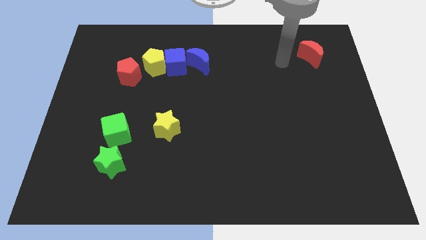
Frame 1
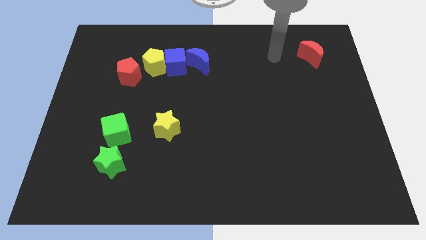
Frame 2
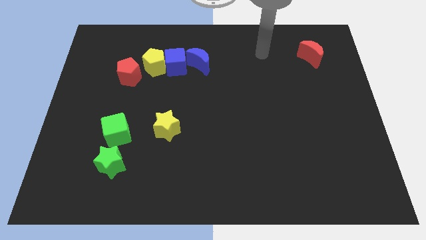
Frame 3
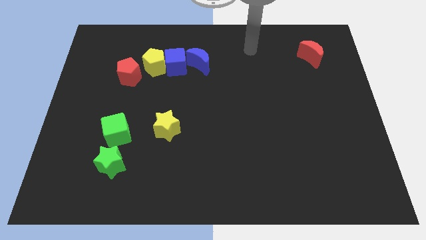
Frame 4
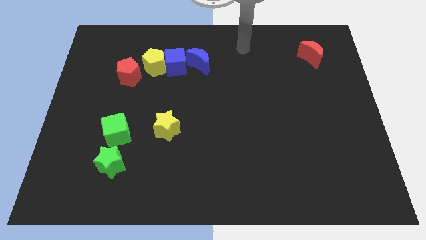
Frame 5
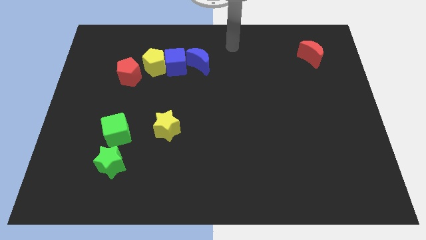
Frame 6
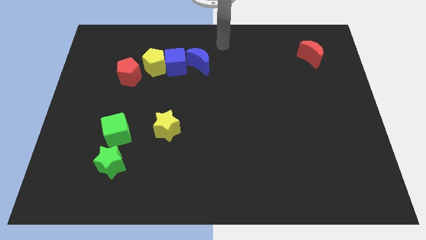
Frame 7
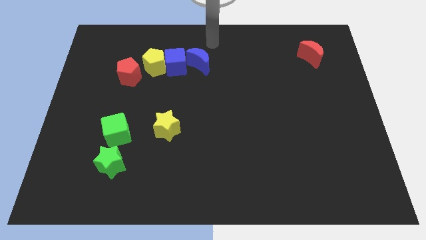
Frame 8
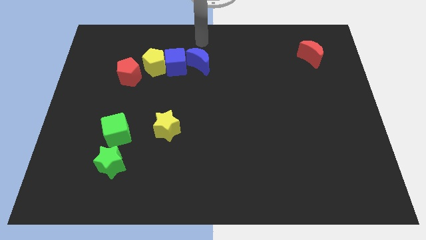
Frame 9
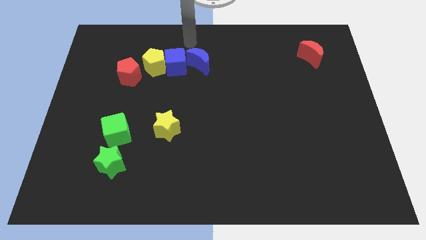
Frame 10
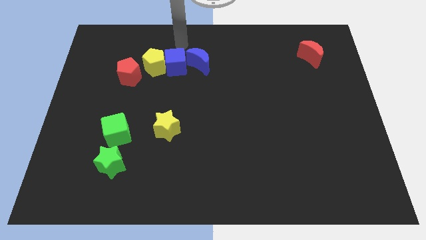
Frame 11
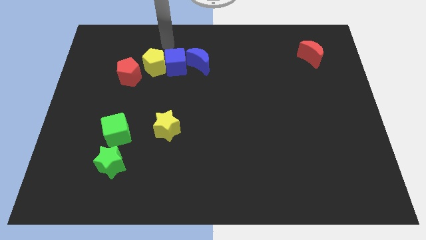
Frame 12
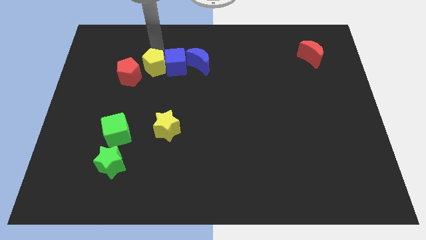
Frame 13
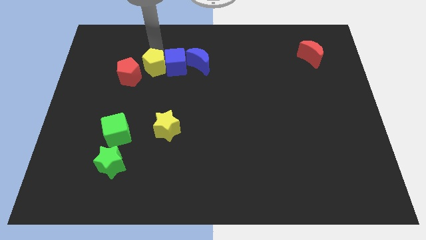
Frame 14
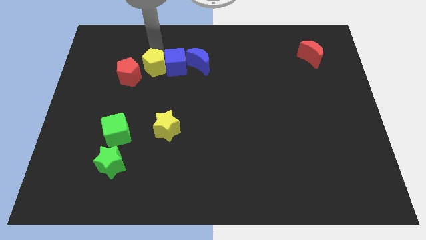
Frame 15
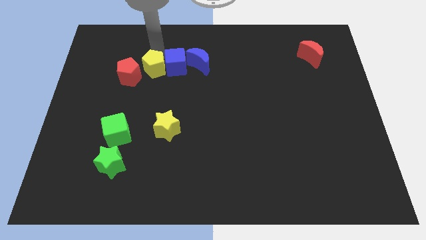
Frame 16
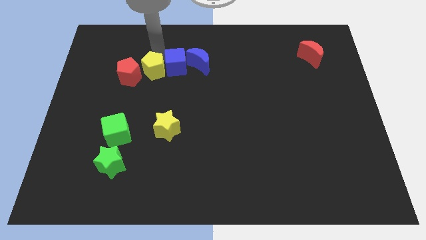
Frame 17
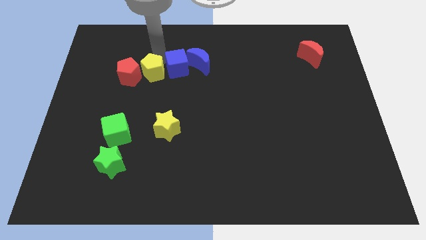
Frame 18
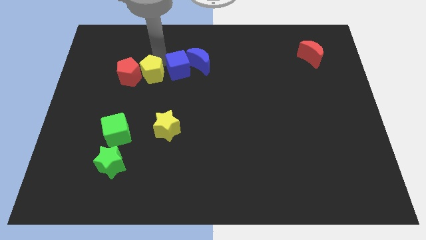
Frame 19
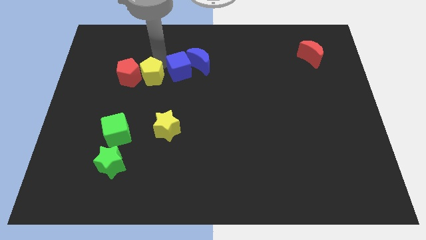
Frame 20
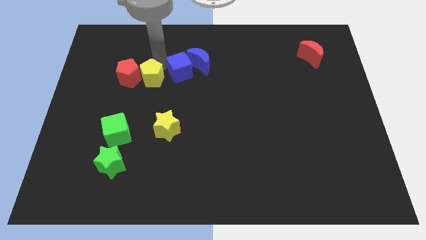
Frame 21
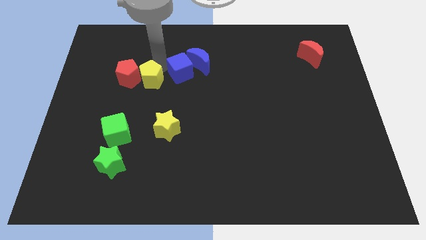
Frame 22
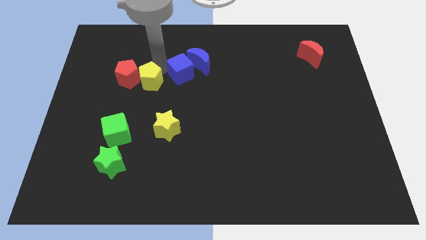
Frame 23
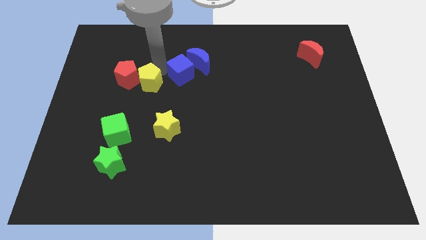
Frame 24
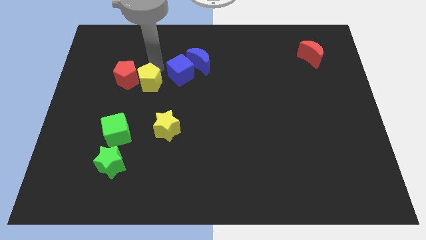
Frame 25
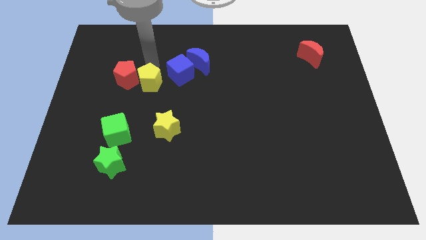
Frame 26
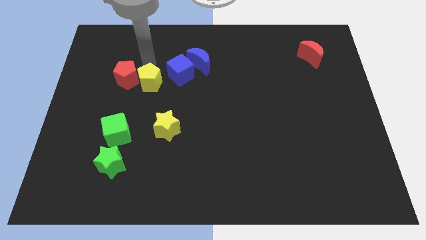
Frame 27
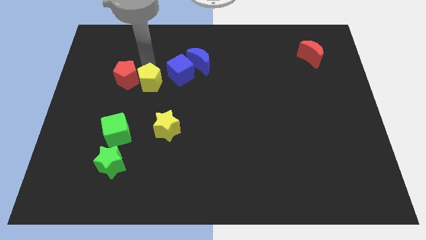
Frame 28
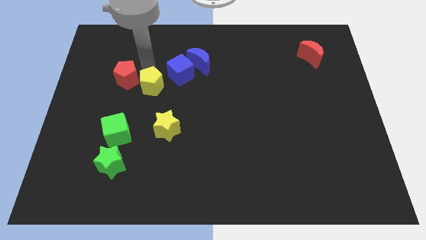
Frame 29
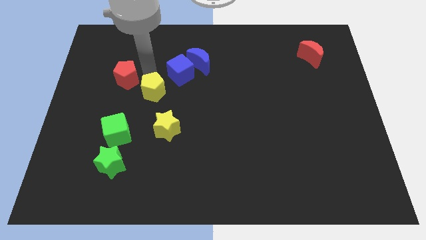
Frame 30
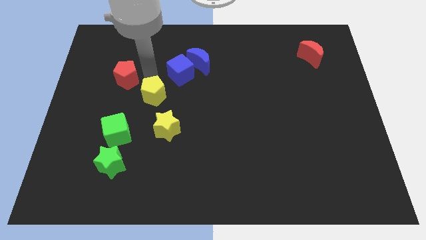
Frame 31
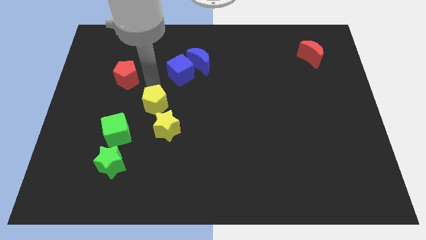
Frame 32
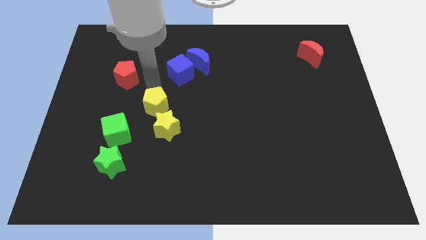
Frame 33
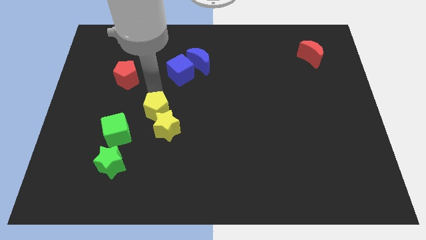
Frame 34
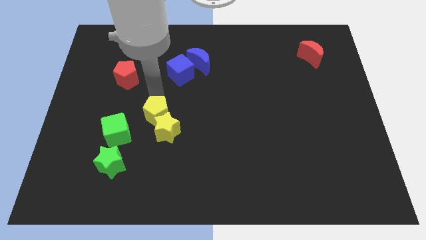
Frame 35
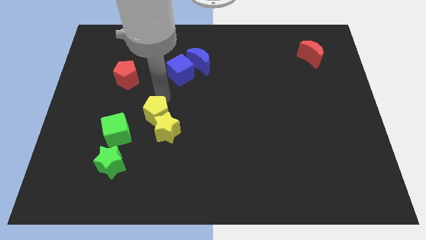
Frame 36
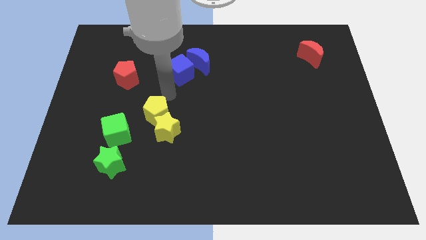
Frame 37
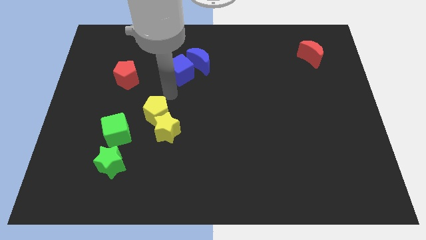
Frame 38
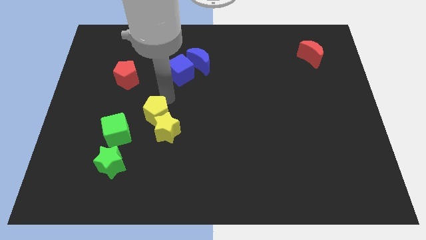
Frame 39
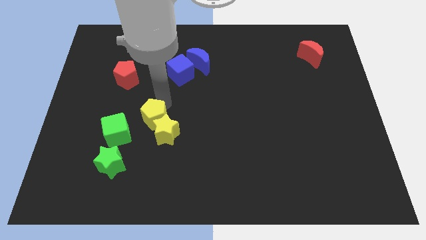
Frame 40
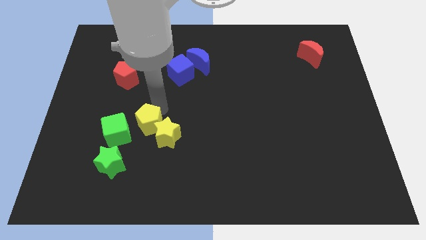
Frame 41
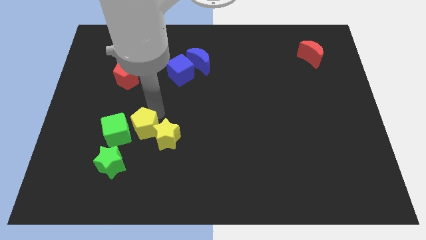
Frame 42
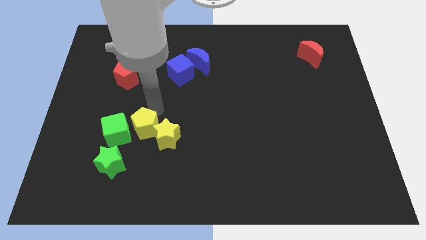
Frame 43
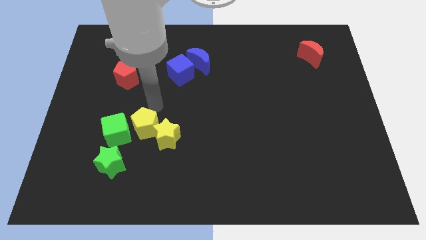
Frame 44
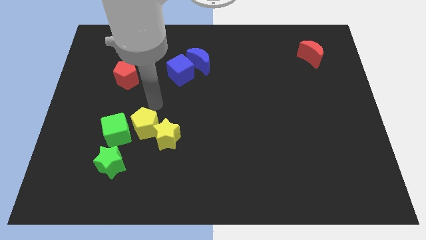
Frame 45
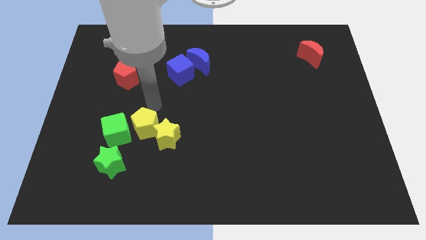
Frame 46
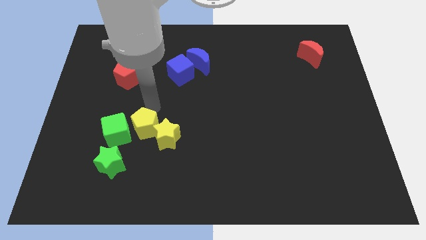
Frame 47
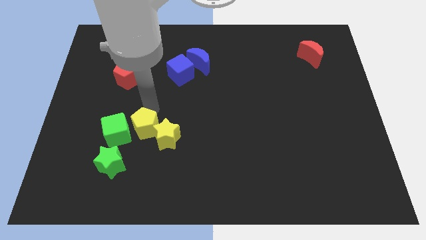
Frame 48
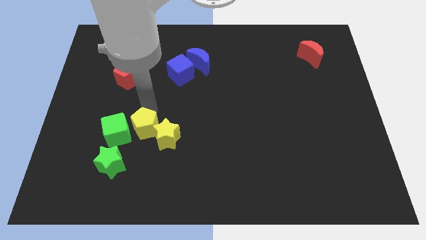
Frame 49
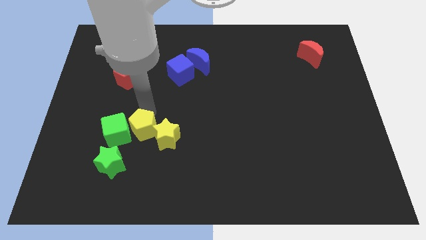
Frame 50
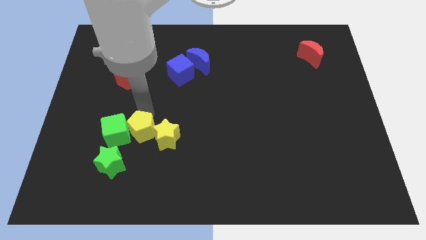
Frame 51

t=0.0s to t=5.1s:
move the yellow pentagon downwards

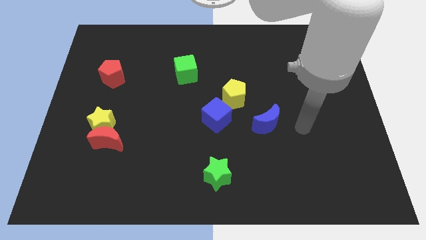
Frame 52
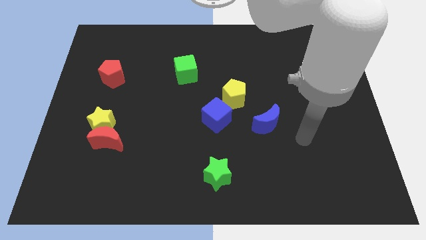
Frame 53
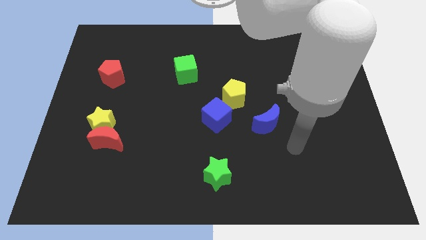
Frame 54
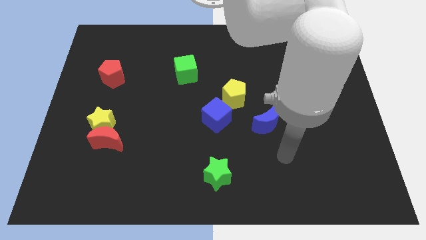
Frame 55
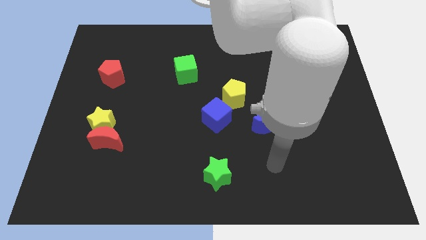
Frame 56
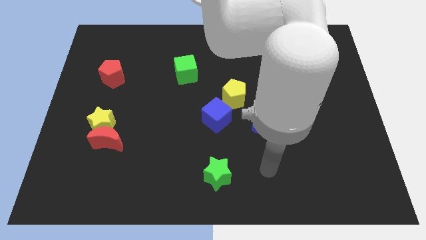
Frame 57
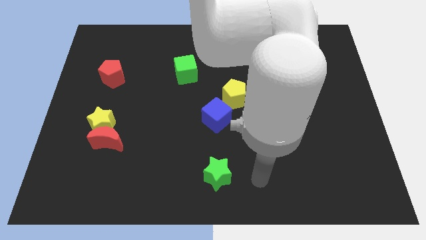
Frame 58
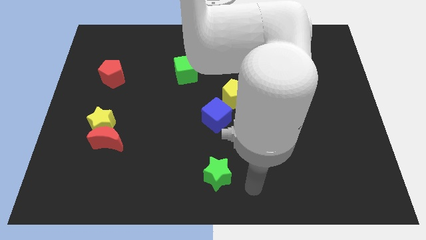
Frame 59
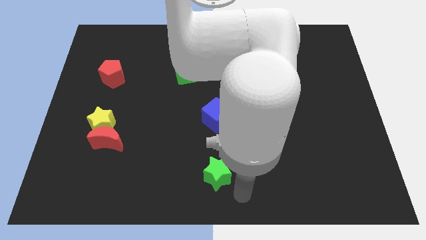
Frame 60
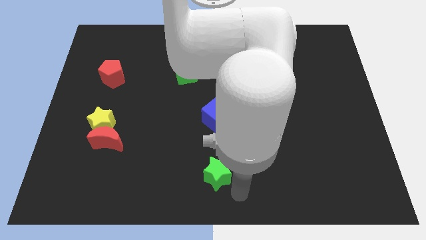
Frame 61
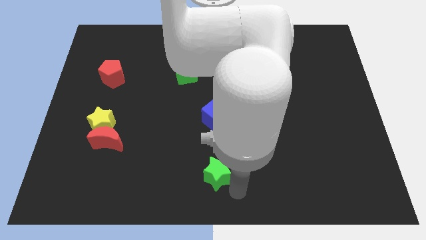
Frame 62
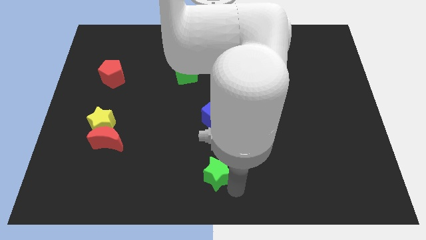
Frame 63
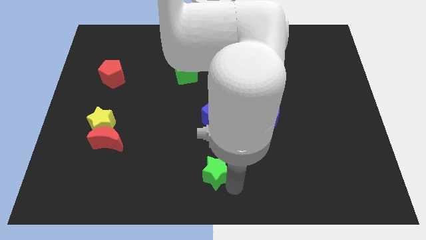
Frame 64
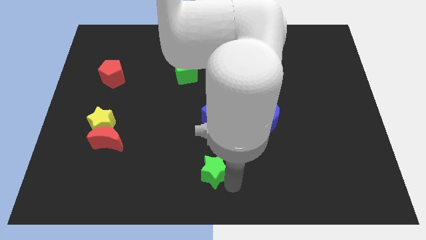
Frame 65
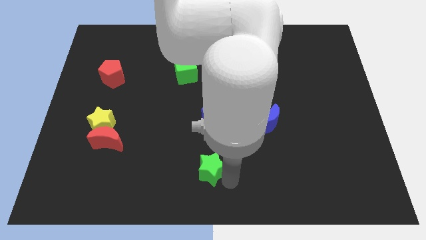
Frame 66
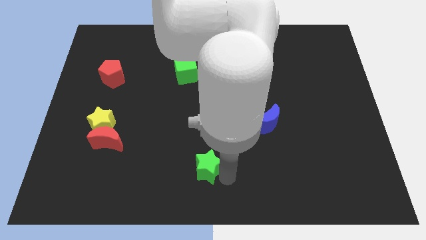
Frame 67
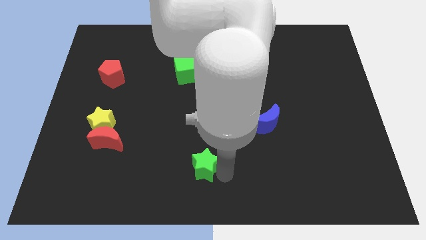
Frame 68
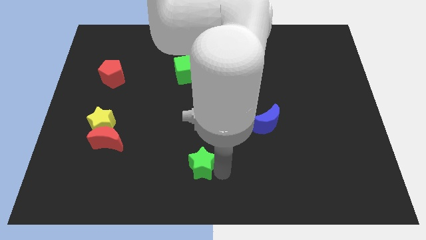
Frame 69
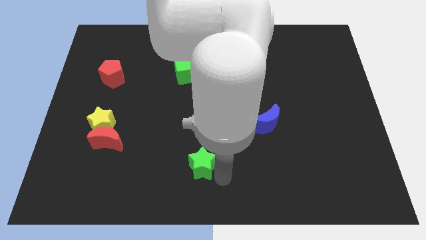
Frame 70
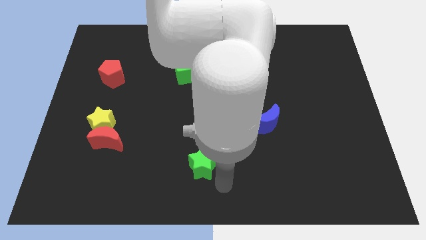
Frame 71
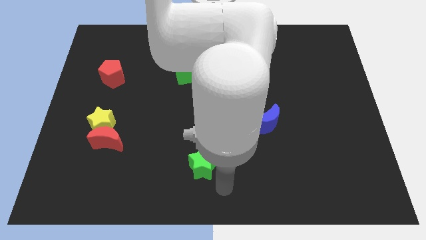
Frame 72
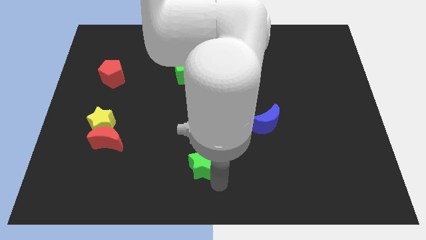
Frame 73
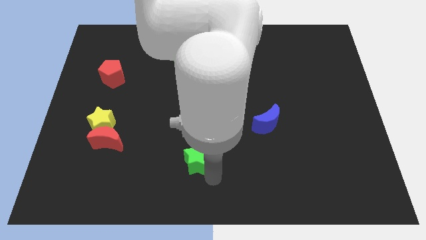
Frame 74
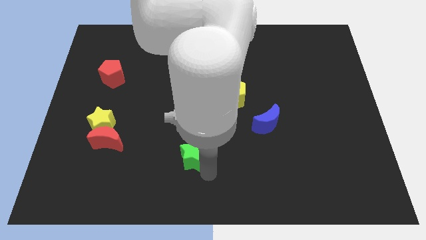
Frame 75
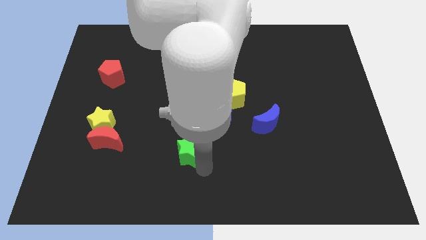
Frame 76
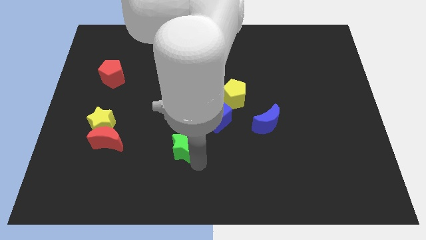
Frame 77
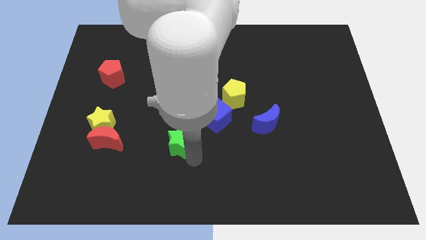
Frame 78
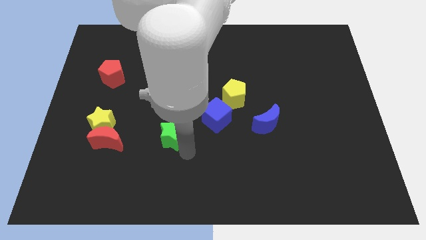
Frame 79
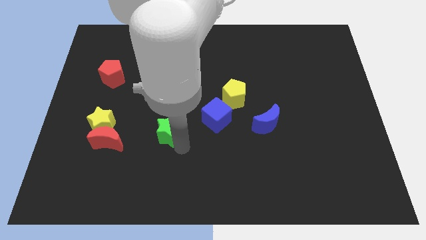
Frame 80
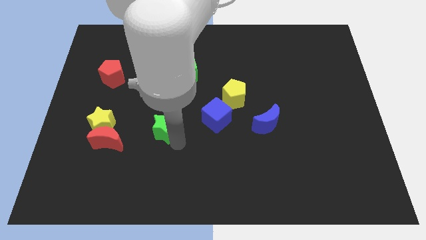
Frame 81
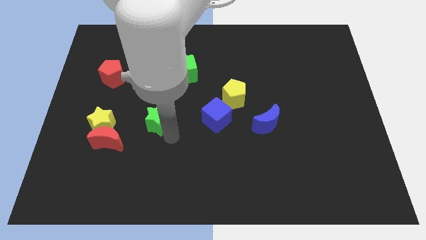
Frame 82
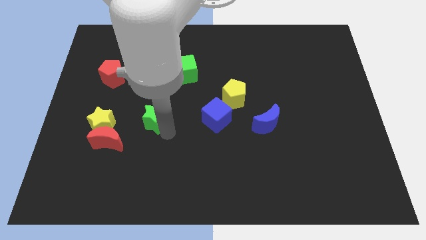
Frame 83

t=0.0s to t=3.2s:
slide the green star diagonally up and left
